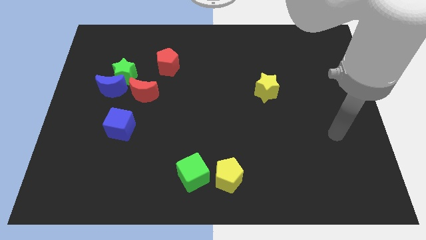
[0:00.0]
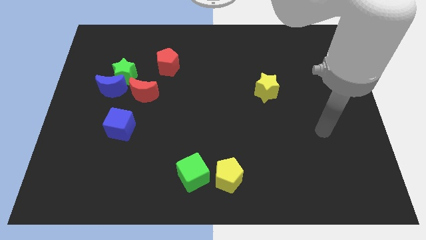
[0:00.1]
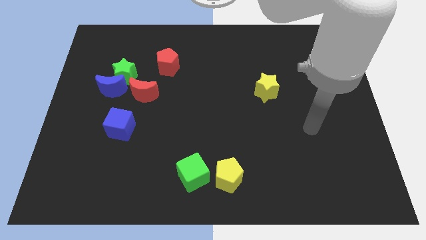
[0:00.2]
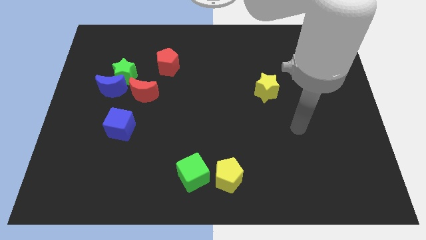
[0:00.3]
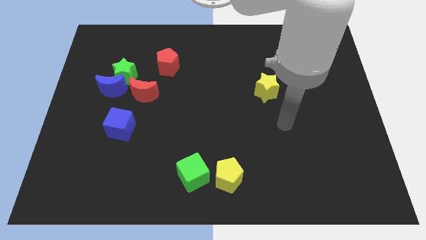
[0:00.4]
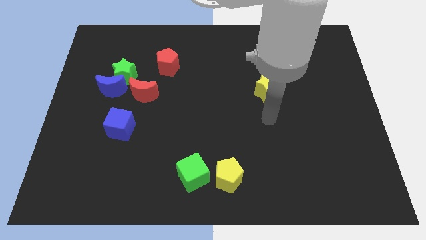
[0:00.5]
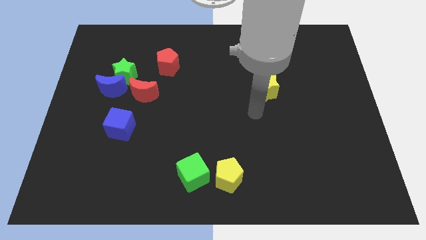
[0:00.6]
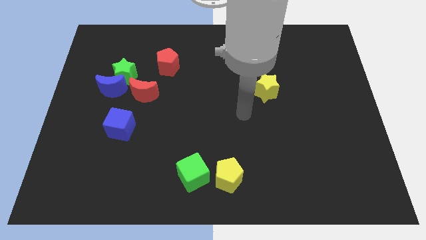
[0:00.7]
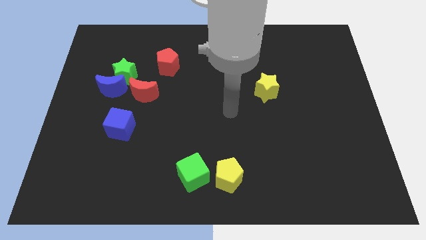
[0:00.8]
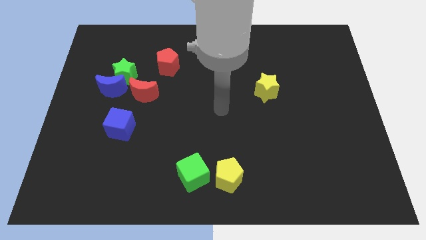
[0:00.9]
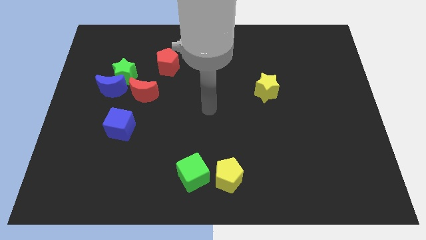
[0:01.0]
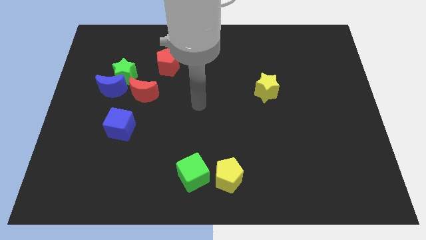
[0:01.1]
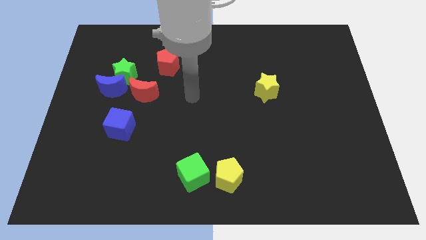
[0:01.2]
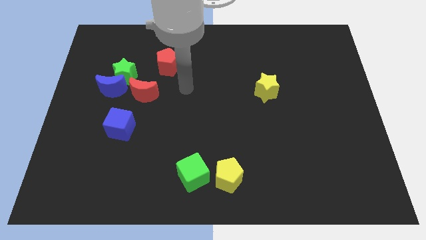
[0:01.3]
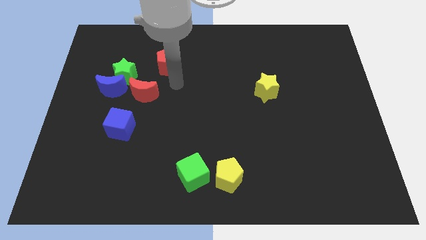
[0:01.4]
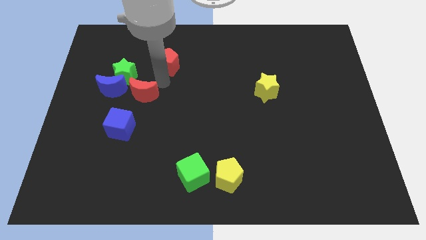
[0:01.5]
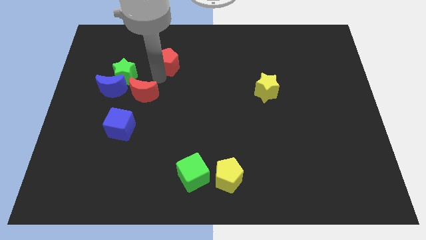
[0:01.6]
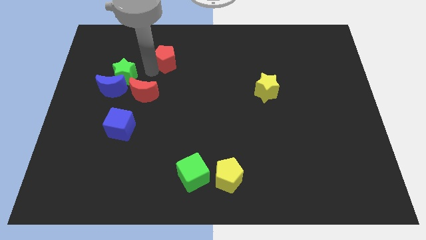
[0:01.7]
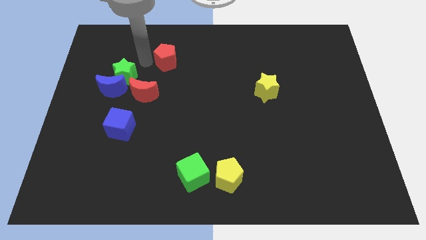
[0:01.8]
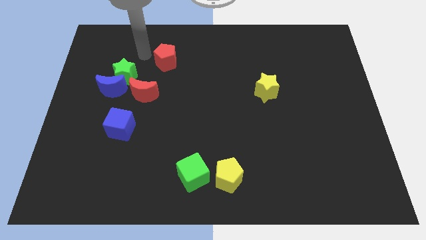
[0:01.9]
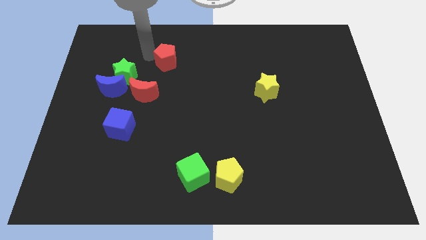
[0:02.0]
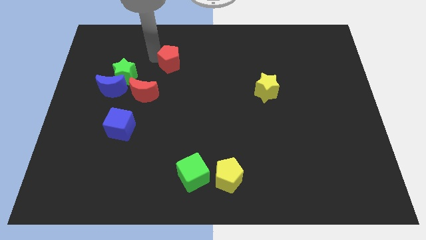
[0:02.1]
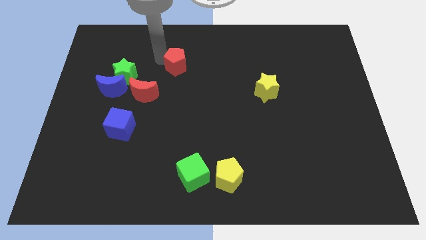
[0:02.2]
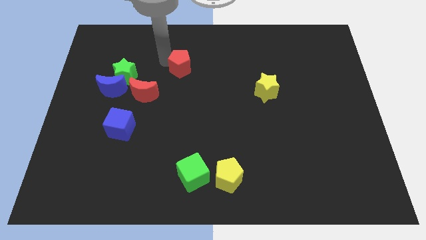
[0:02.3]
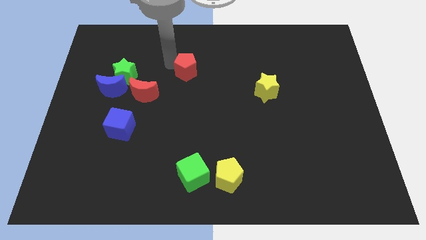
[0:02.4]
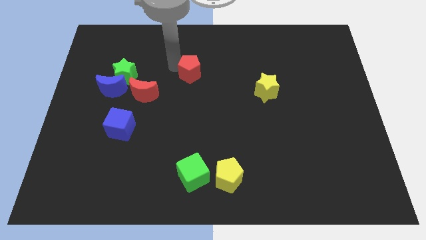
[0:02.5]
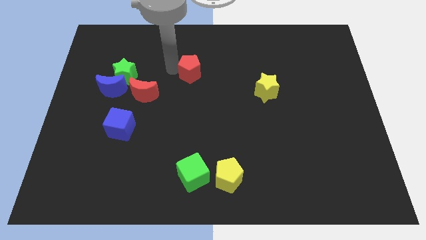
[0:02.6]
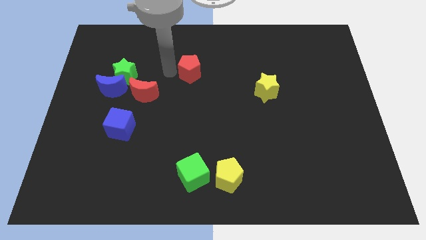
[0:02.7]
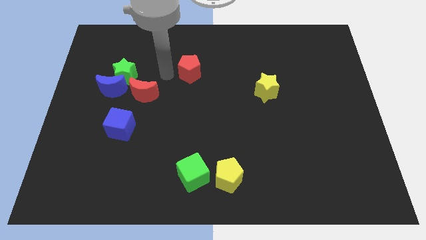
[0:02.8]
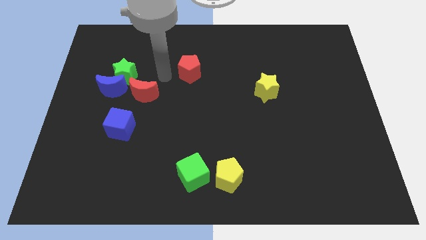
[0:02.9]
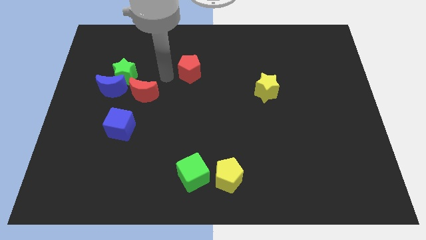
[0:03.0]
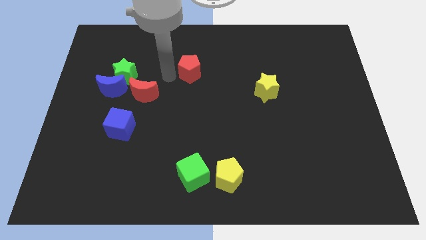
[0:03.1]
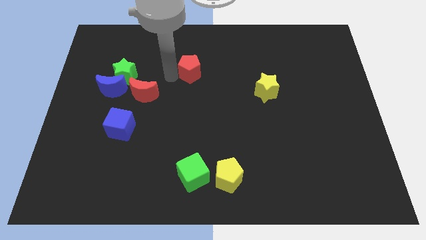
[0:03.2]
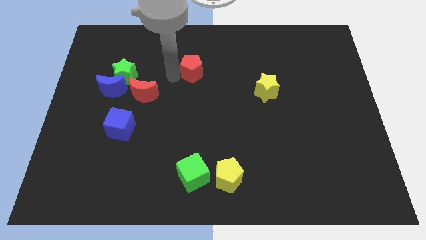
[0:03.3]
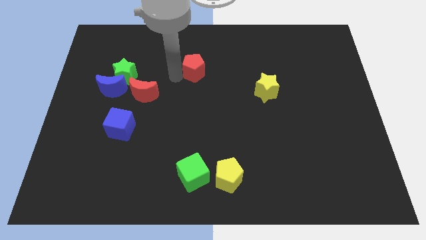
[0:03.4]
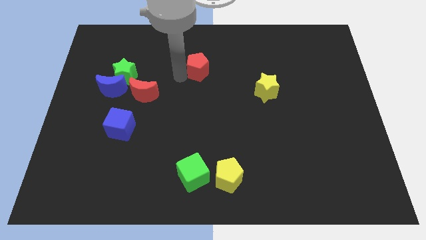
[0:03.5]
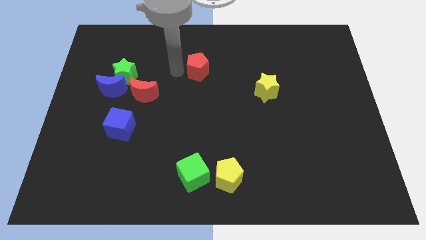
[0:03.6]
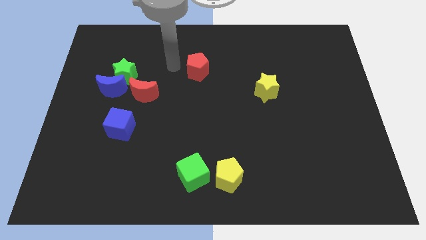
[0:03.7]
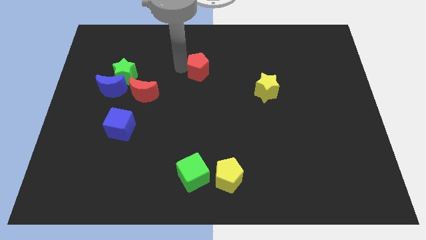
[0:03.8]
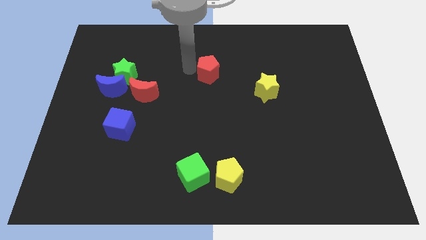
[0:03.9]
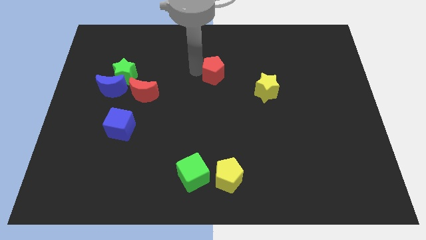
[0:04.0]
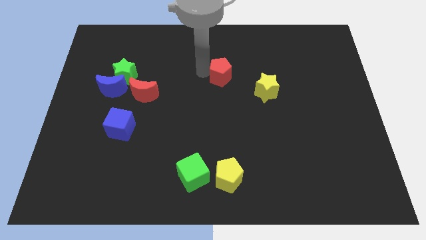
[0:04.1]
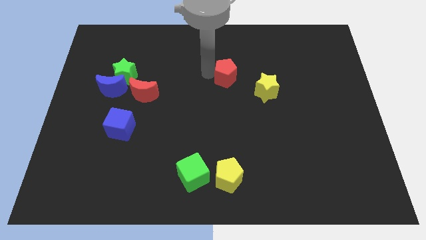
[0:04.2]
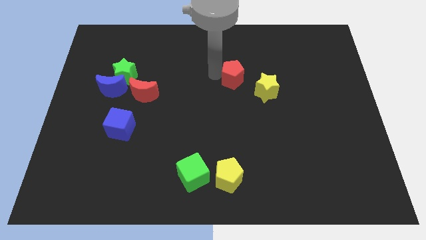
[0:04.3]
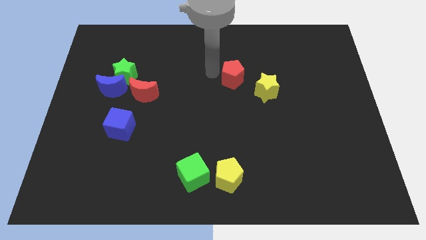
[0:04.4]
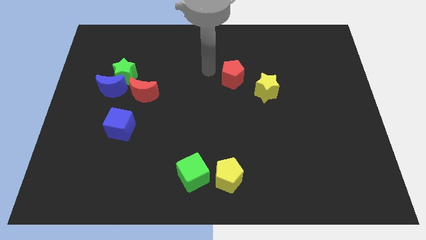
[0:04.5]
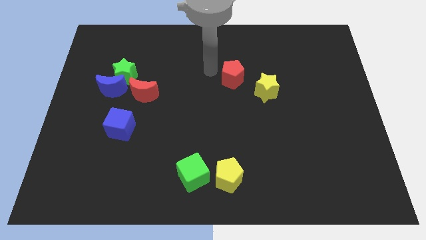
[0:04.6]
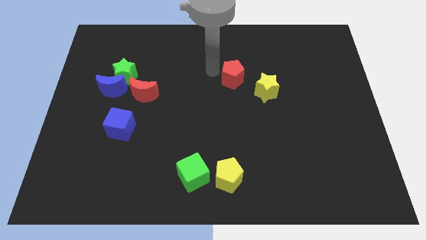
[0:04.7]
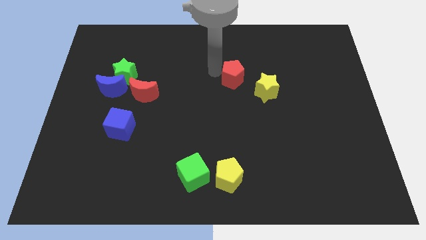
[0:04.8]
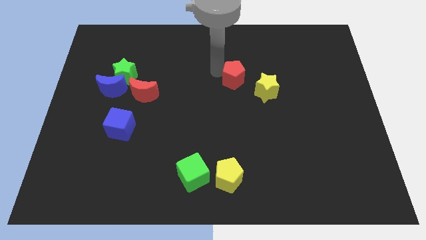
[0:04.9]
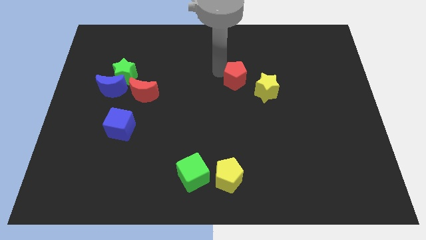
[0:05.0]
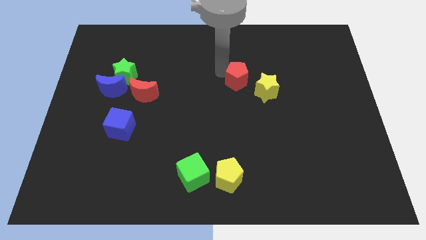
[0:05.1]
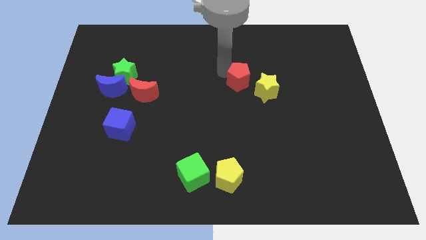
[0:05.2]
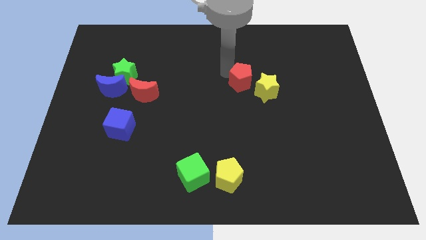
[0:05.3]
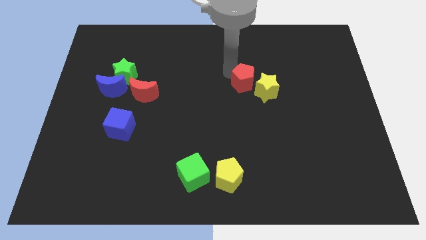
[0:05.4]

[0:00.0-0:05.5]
move the red pentagon to the yellow star

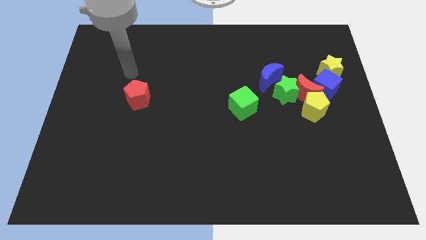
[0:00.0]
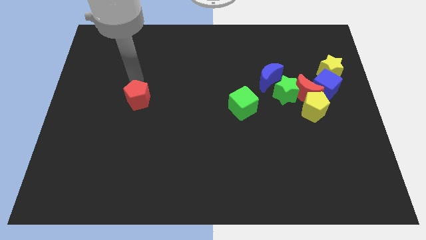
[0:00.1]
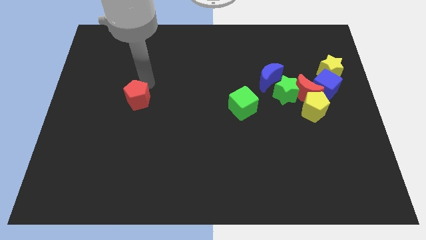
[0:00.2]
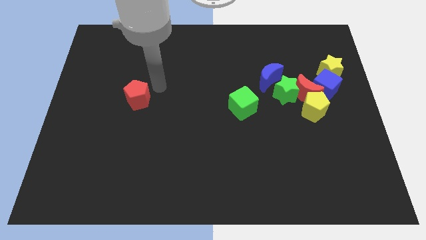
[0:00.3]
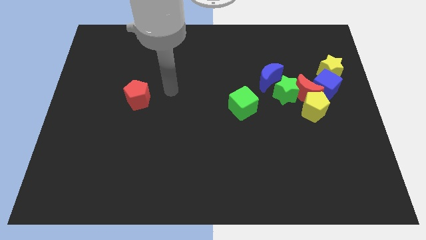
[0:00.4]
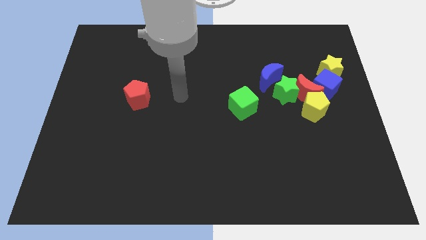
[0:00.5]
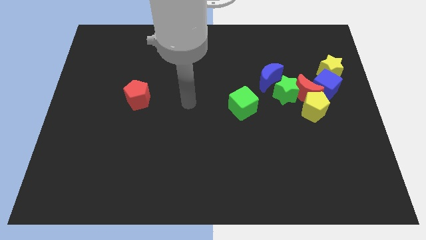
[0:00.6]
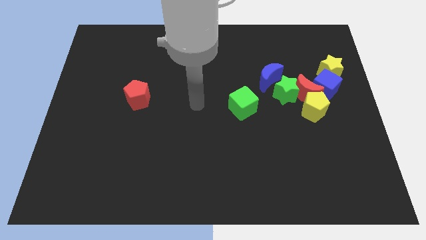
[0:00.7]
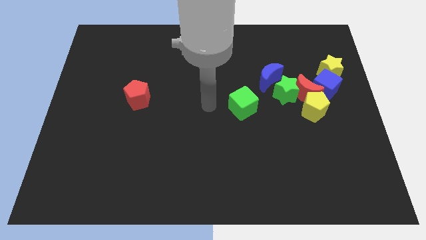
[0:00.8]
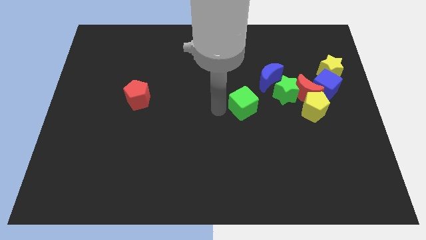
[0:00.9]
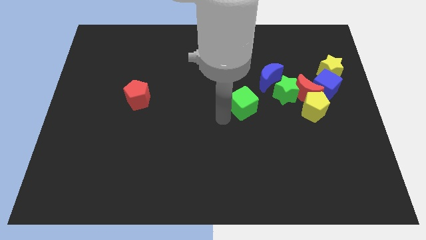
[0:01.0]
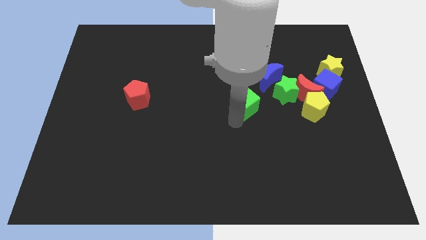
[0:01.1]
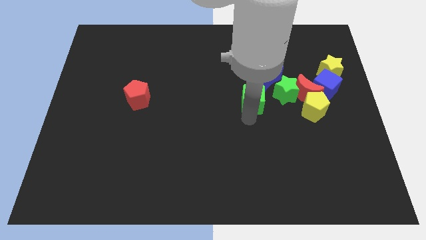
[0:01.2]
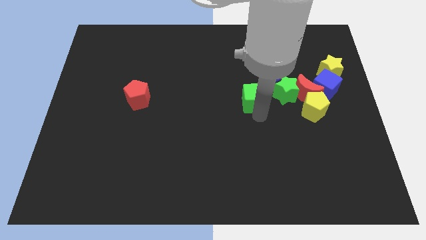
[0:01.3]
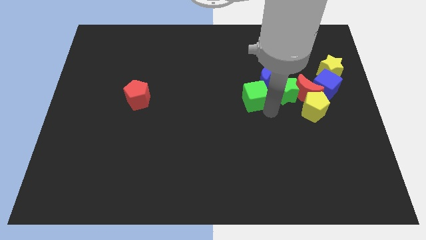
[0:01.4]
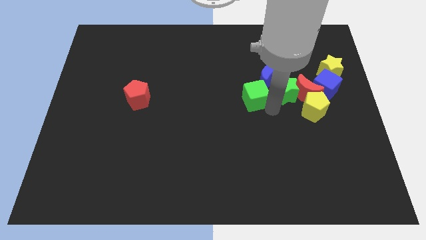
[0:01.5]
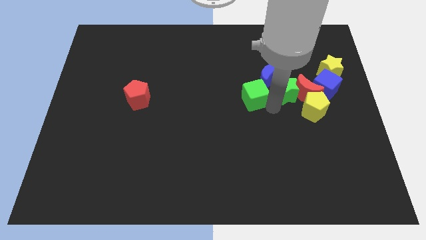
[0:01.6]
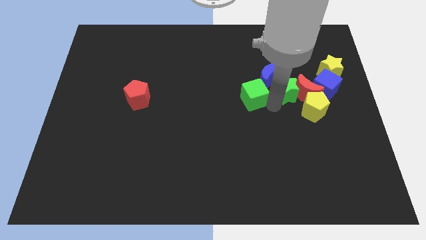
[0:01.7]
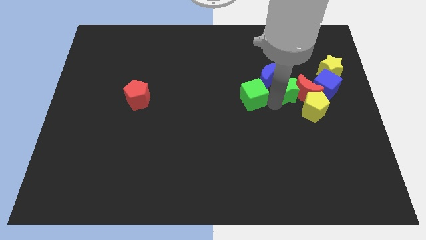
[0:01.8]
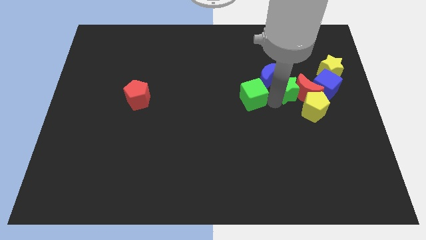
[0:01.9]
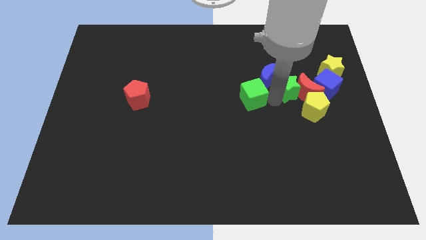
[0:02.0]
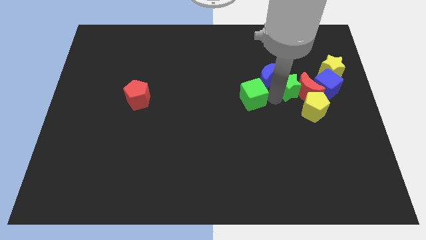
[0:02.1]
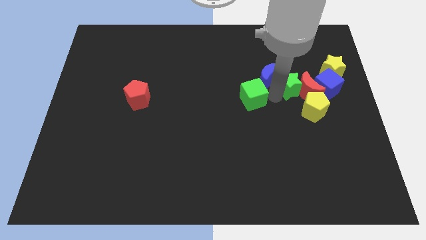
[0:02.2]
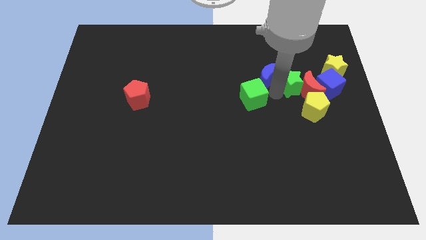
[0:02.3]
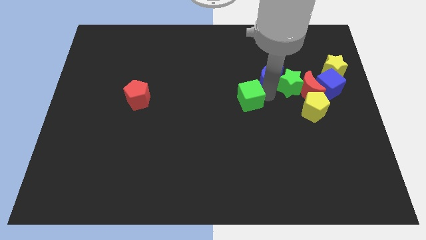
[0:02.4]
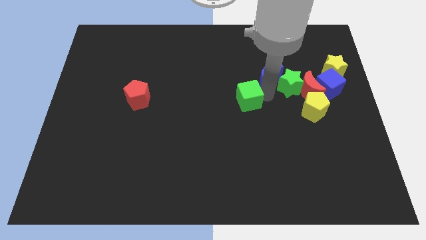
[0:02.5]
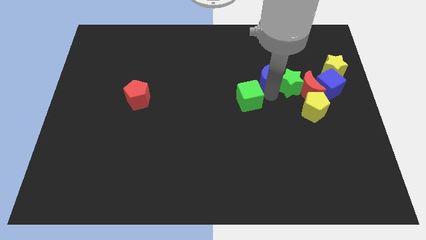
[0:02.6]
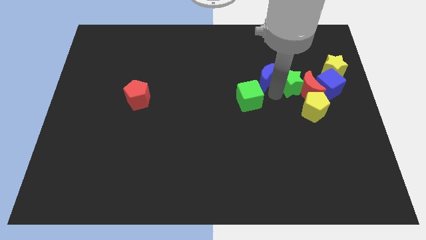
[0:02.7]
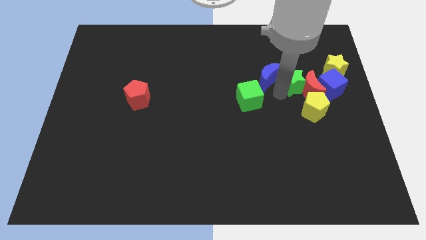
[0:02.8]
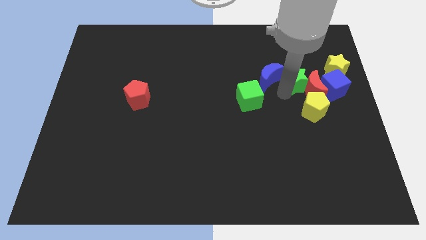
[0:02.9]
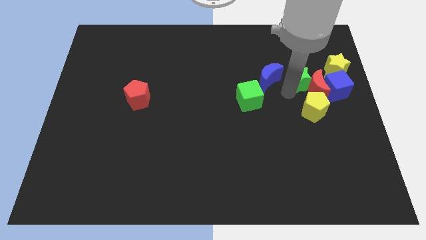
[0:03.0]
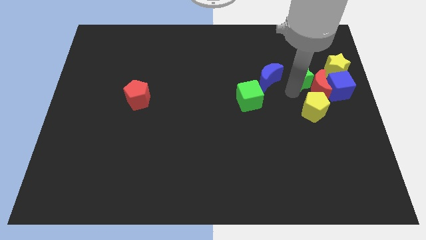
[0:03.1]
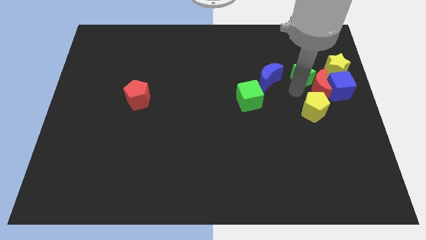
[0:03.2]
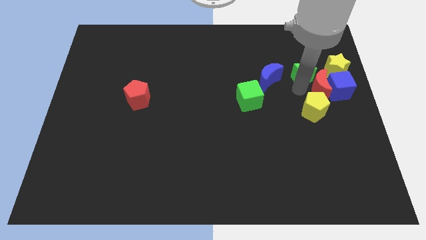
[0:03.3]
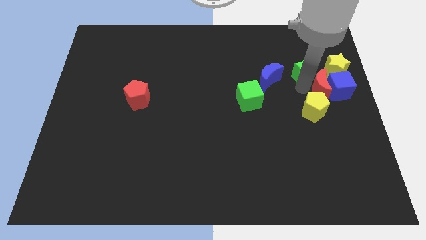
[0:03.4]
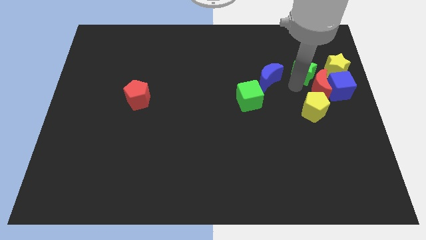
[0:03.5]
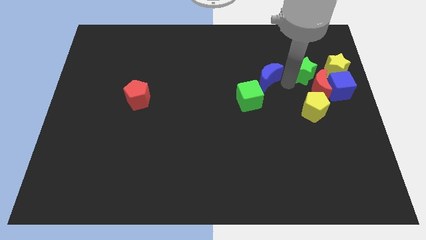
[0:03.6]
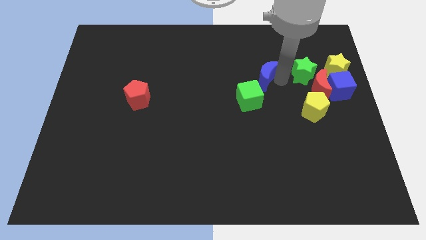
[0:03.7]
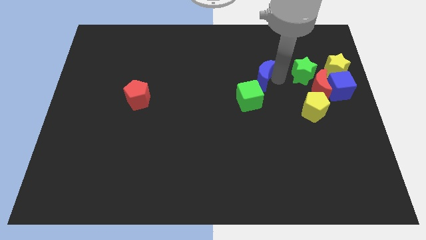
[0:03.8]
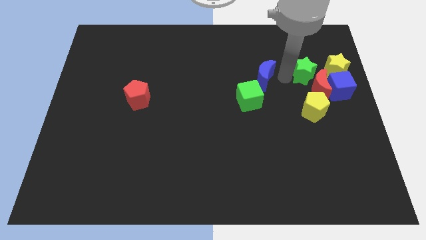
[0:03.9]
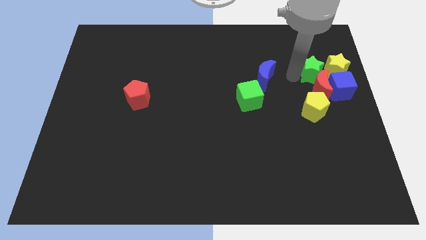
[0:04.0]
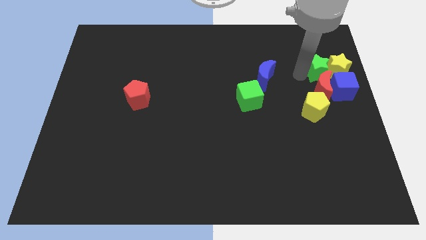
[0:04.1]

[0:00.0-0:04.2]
move the green star to the yellow star
